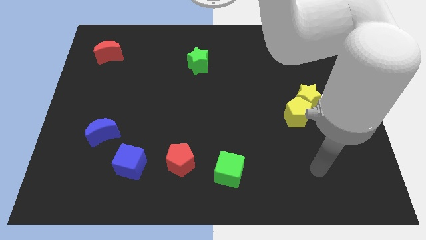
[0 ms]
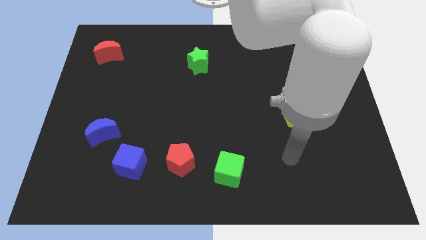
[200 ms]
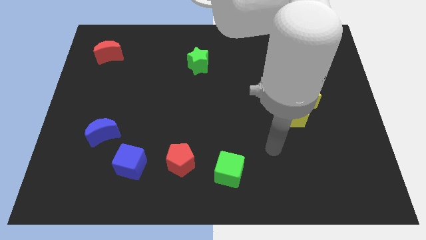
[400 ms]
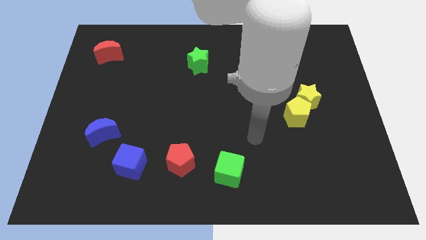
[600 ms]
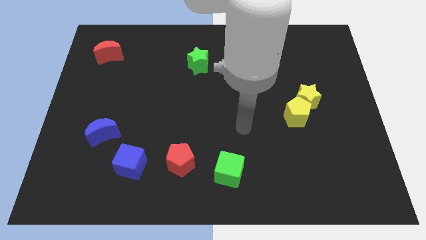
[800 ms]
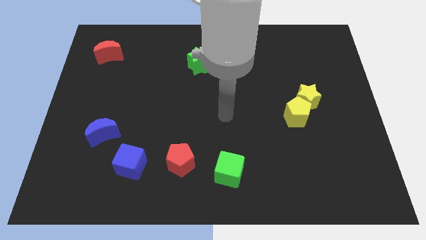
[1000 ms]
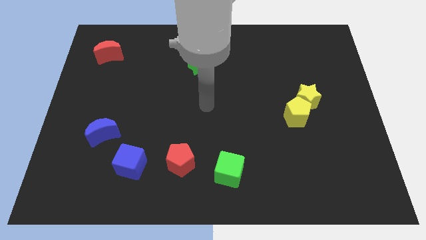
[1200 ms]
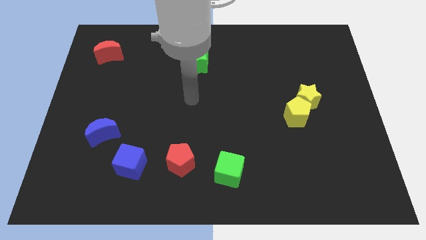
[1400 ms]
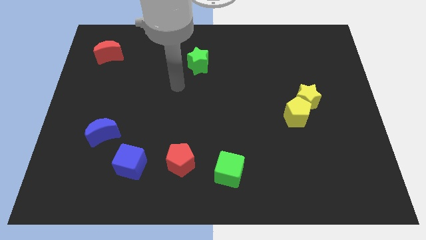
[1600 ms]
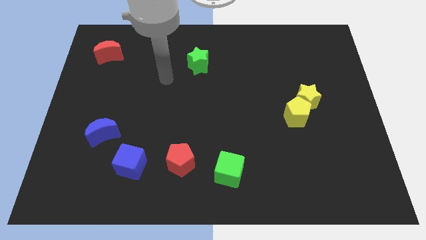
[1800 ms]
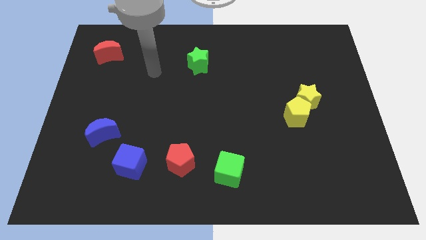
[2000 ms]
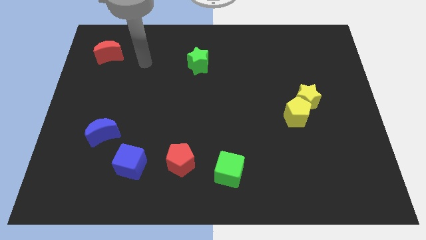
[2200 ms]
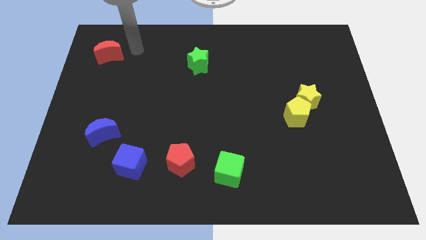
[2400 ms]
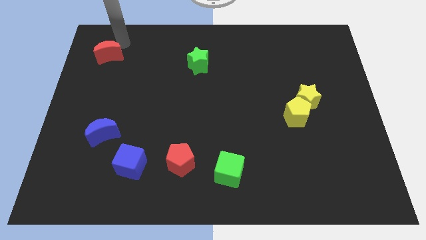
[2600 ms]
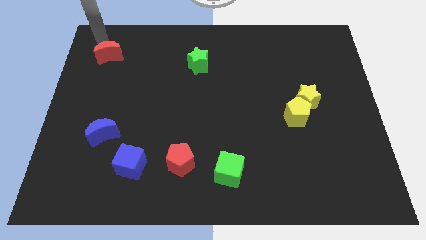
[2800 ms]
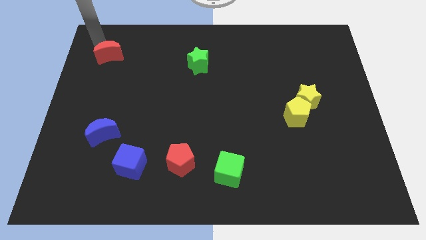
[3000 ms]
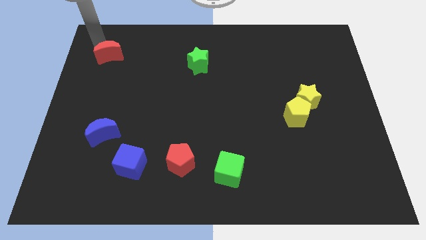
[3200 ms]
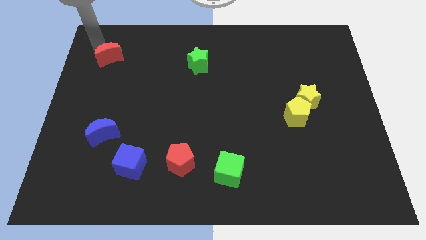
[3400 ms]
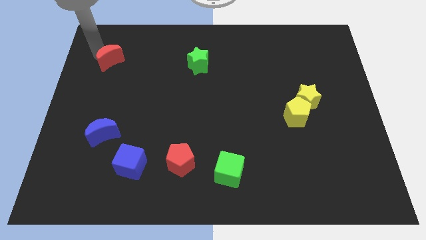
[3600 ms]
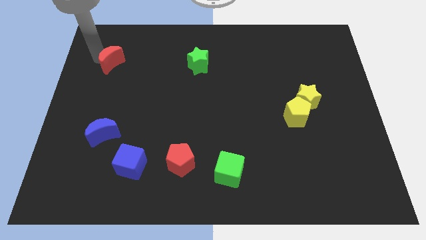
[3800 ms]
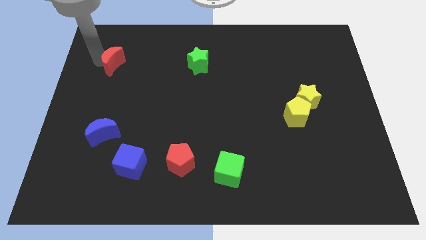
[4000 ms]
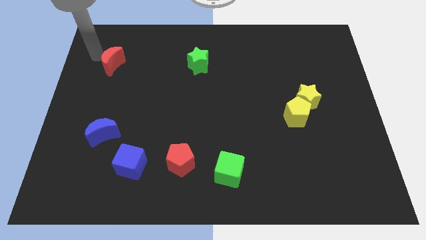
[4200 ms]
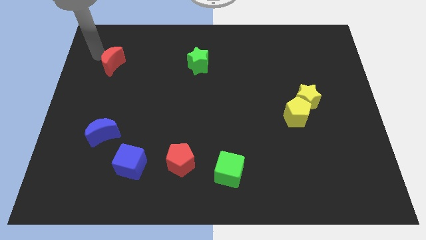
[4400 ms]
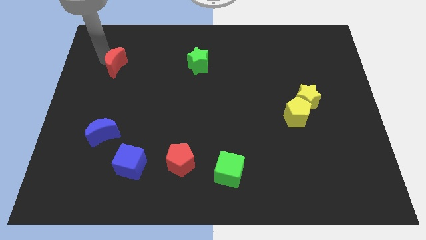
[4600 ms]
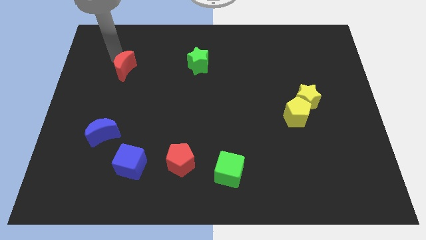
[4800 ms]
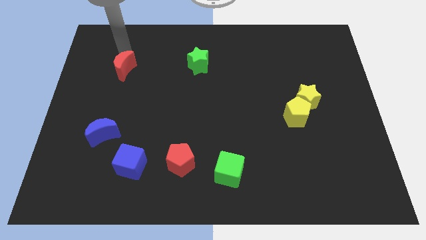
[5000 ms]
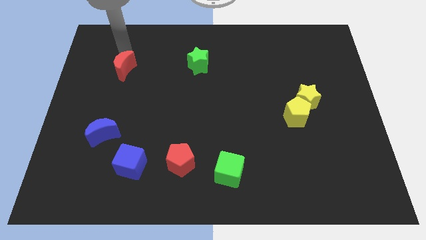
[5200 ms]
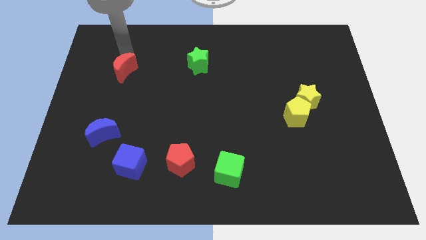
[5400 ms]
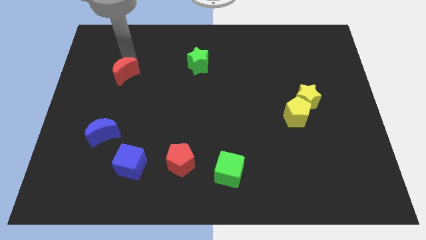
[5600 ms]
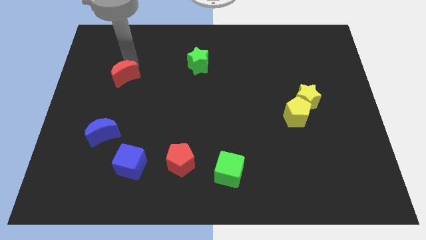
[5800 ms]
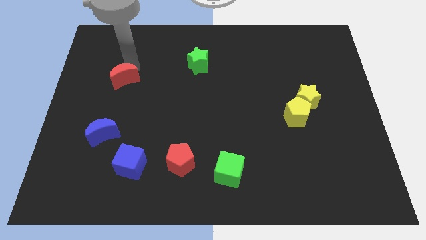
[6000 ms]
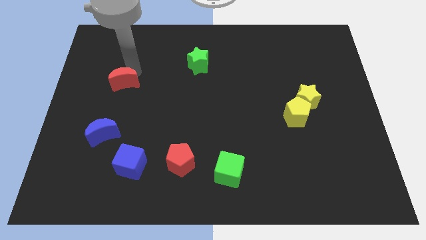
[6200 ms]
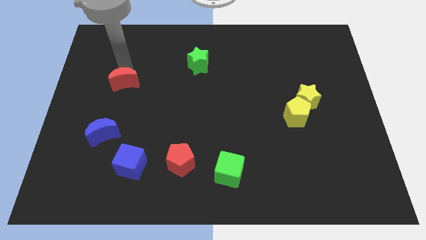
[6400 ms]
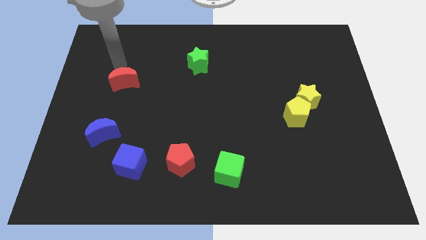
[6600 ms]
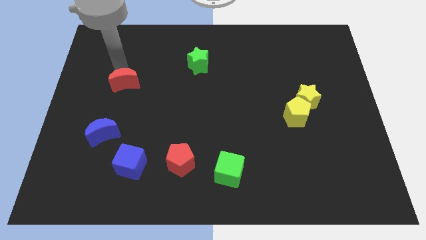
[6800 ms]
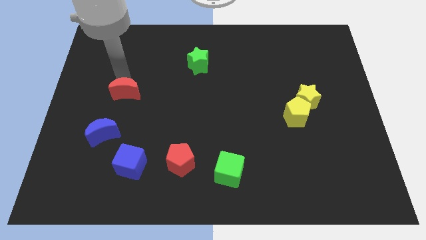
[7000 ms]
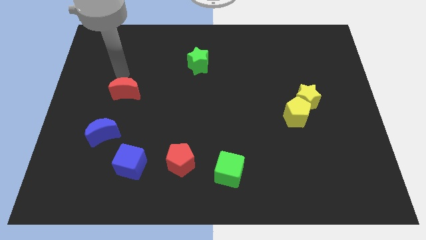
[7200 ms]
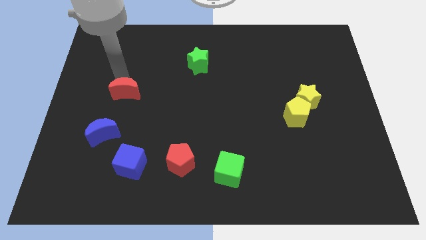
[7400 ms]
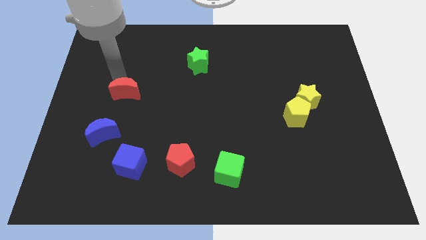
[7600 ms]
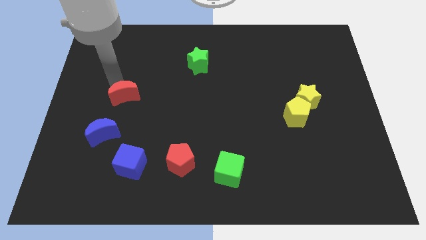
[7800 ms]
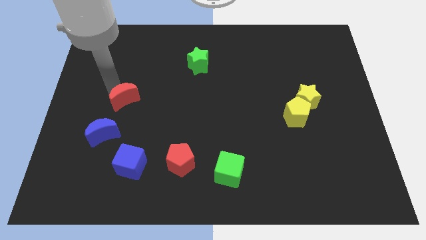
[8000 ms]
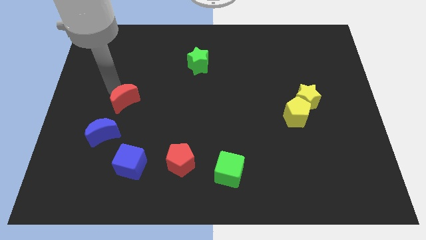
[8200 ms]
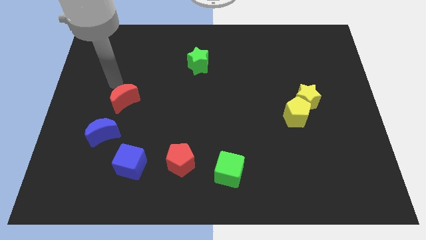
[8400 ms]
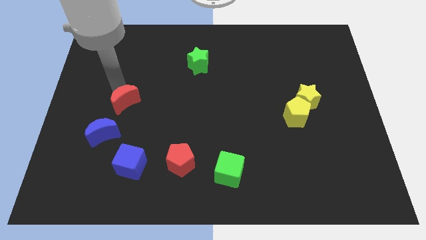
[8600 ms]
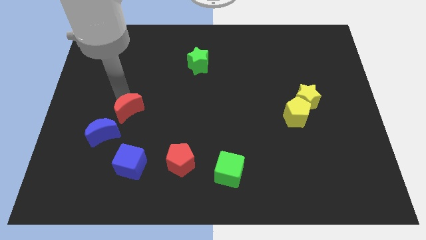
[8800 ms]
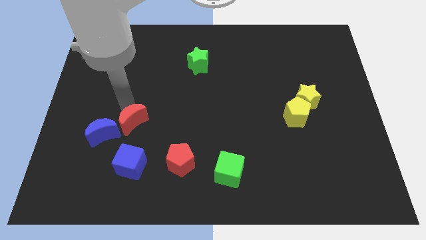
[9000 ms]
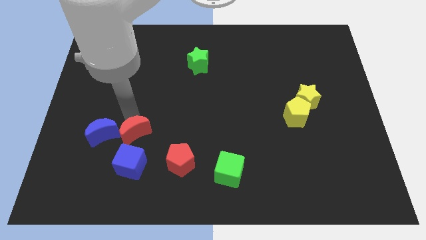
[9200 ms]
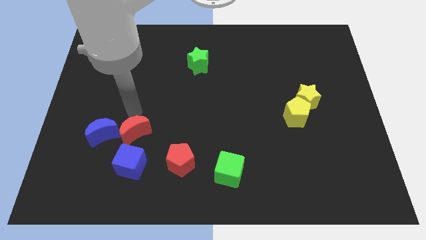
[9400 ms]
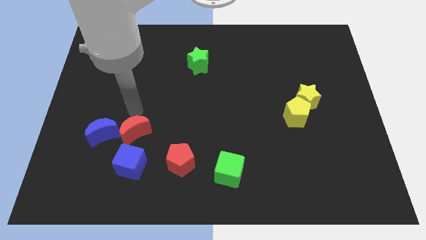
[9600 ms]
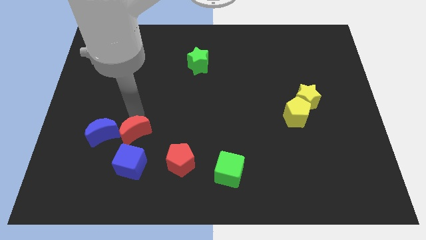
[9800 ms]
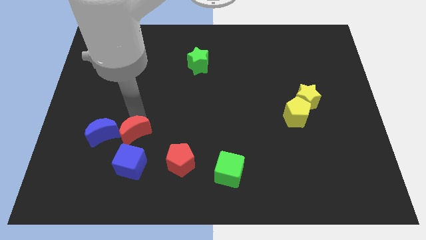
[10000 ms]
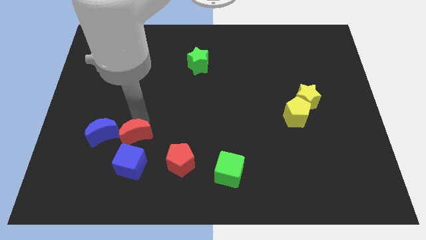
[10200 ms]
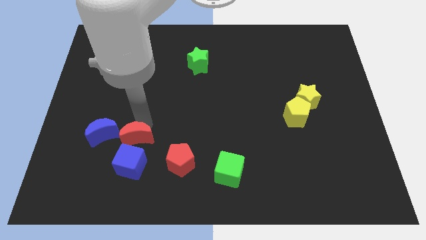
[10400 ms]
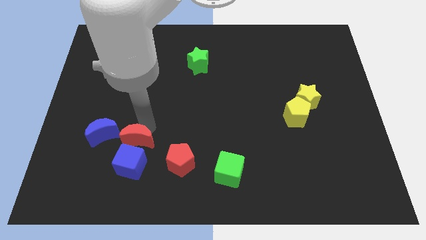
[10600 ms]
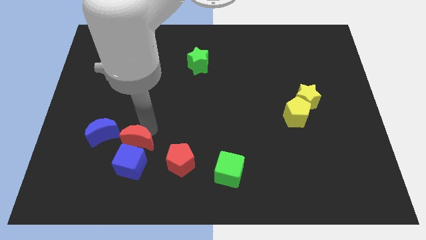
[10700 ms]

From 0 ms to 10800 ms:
push the red moon to the blue cube

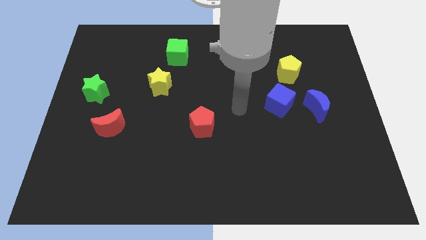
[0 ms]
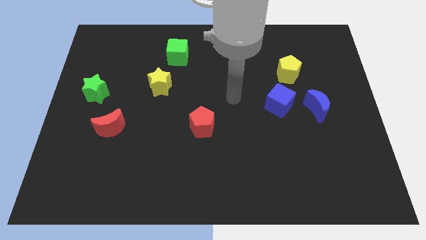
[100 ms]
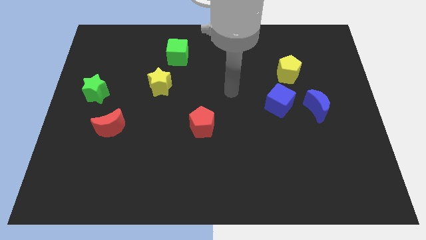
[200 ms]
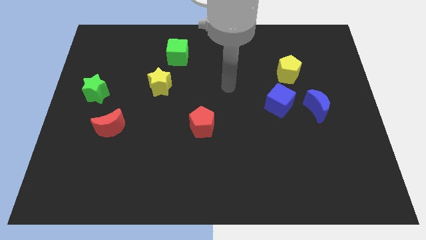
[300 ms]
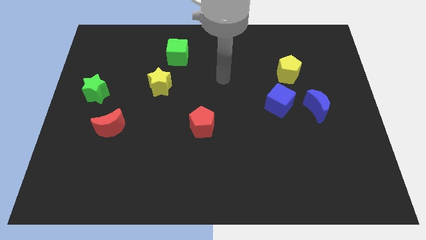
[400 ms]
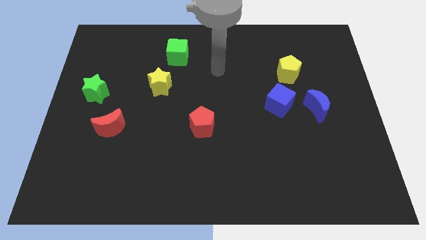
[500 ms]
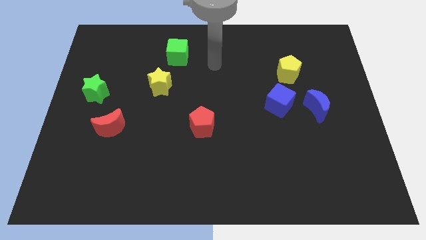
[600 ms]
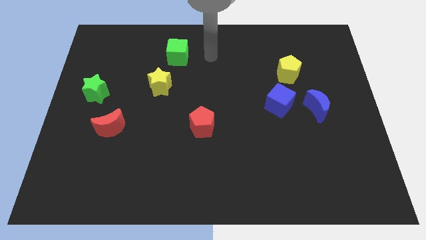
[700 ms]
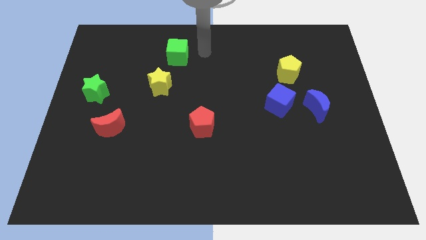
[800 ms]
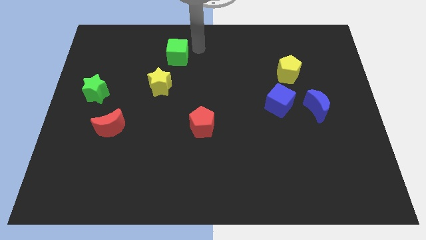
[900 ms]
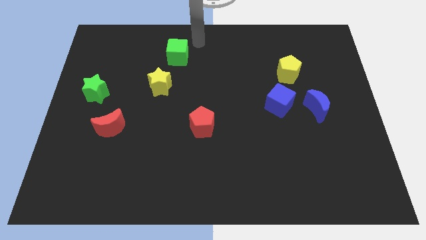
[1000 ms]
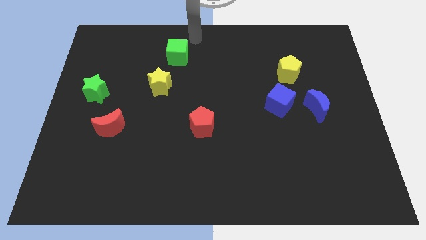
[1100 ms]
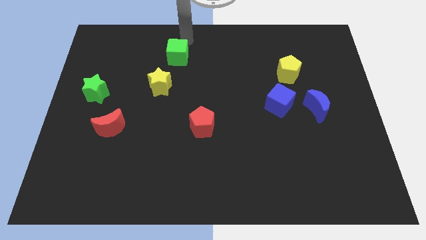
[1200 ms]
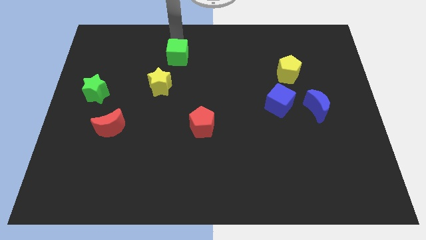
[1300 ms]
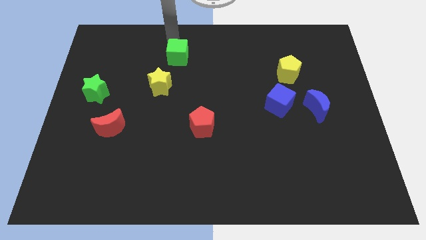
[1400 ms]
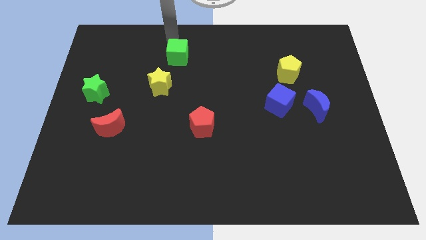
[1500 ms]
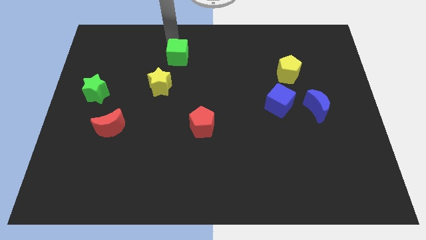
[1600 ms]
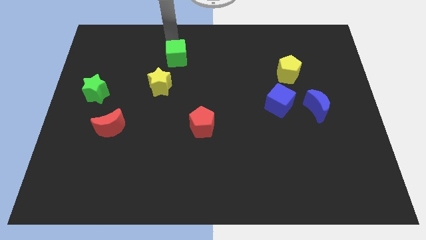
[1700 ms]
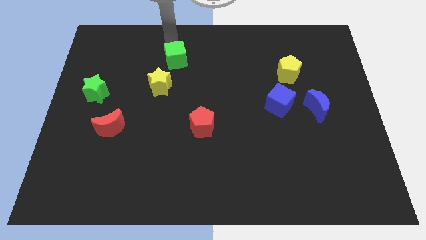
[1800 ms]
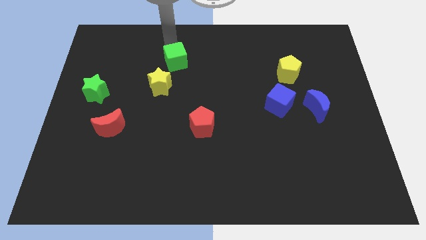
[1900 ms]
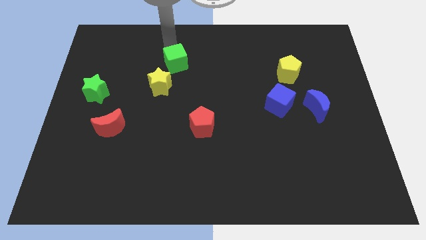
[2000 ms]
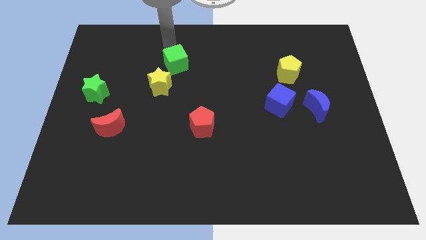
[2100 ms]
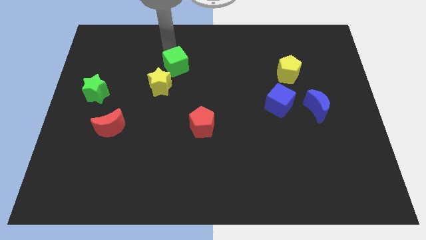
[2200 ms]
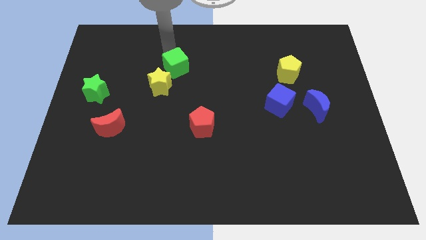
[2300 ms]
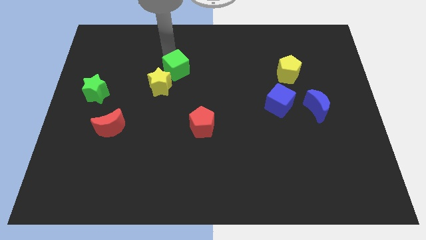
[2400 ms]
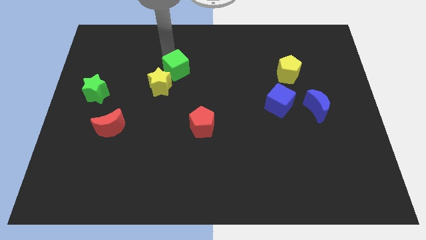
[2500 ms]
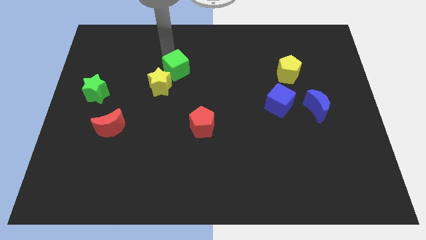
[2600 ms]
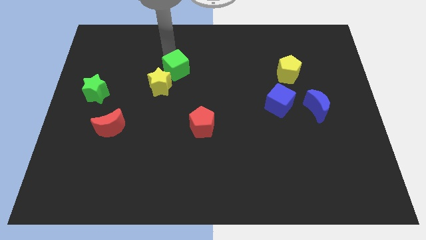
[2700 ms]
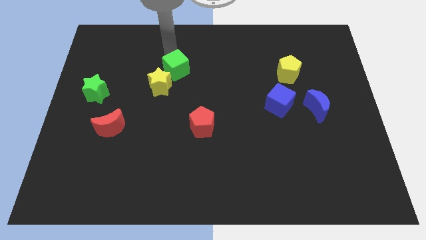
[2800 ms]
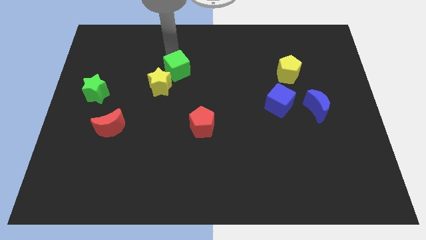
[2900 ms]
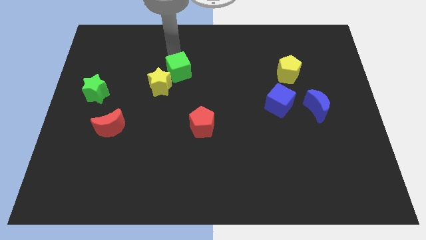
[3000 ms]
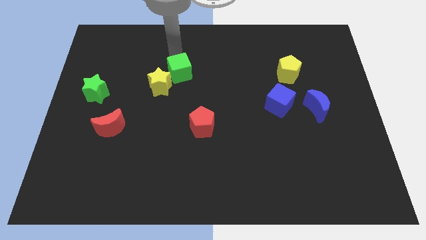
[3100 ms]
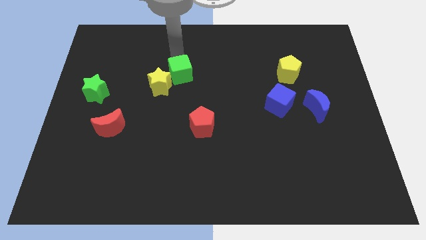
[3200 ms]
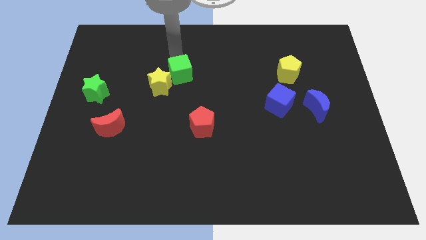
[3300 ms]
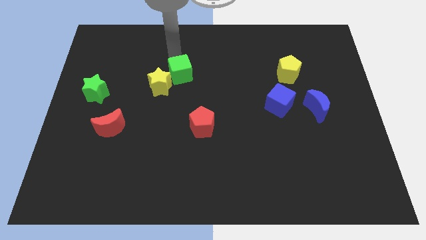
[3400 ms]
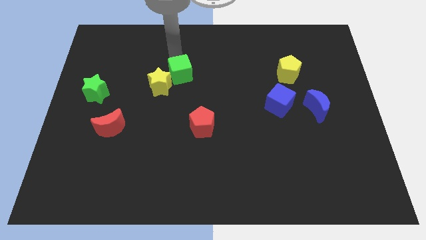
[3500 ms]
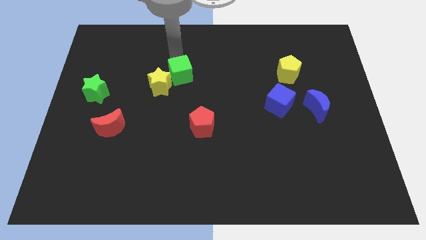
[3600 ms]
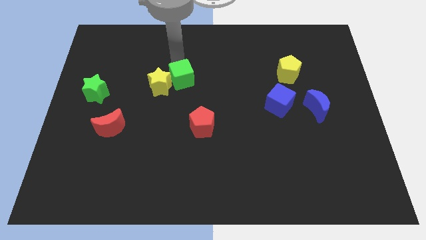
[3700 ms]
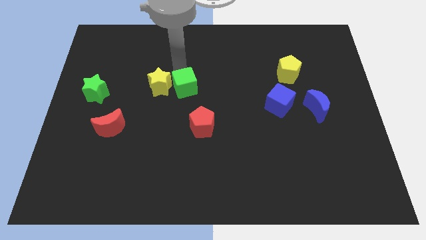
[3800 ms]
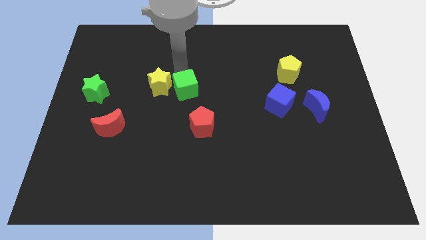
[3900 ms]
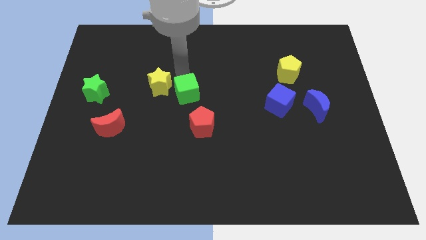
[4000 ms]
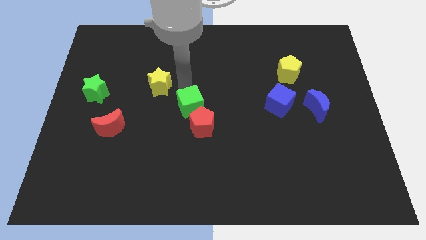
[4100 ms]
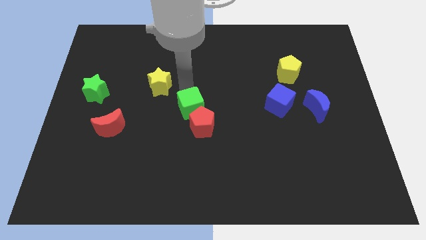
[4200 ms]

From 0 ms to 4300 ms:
push the green cube close to the red pentagon
